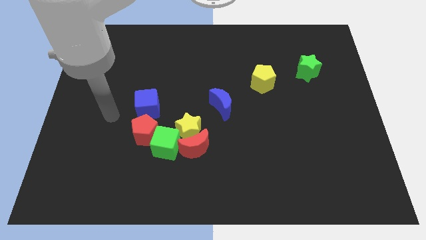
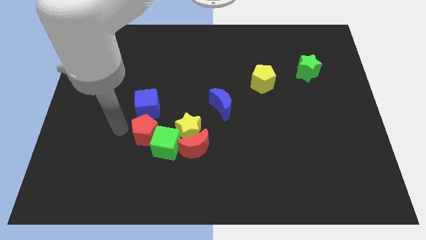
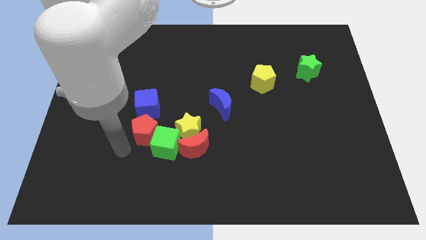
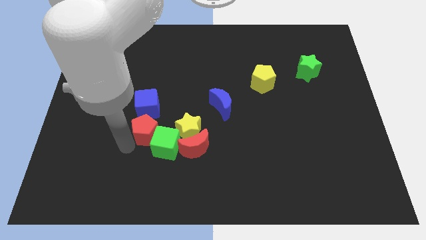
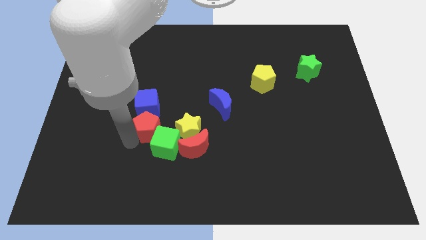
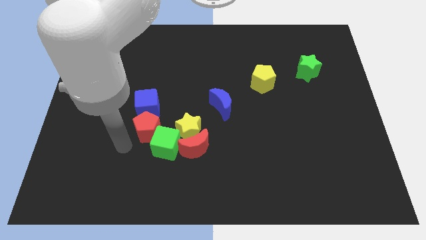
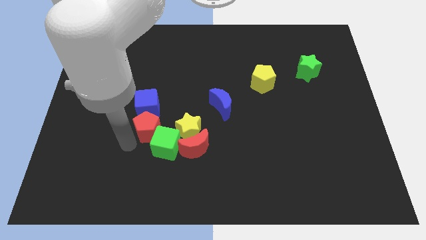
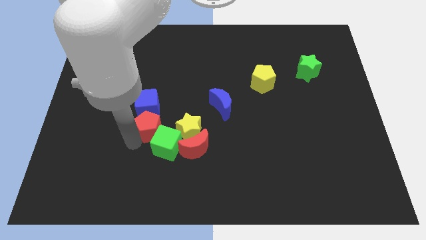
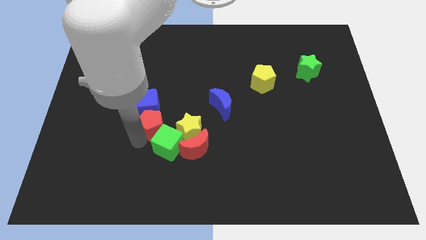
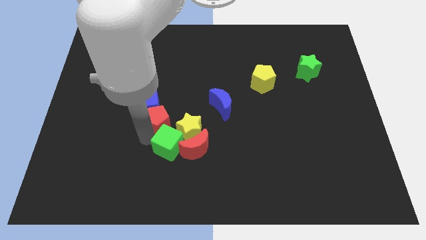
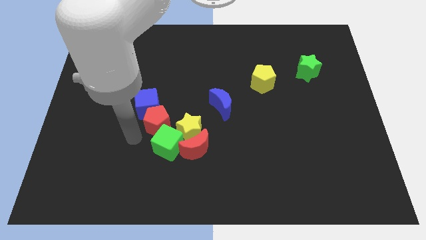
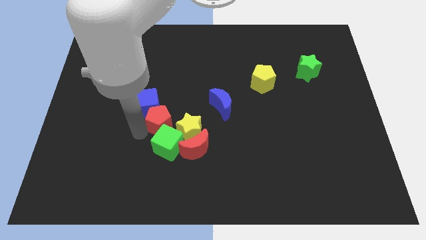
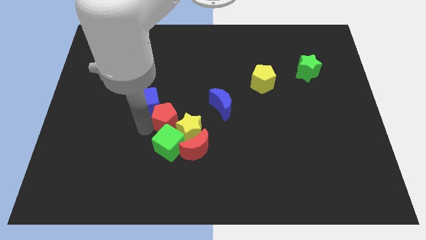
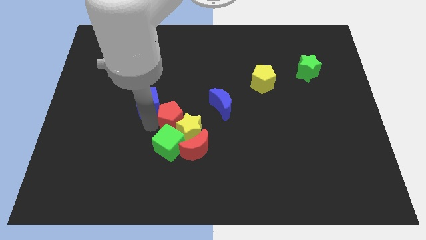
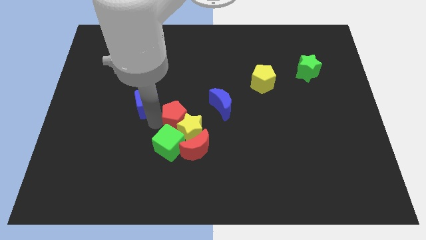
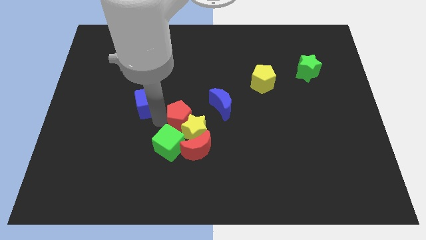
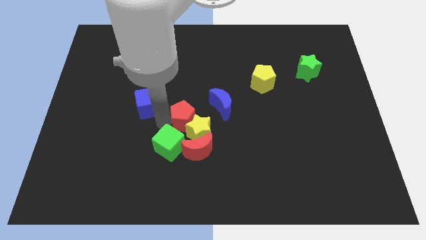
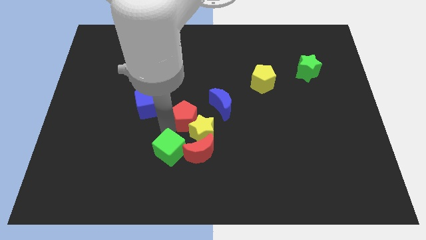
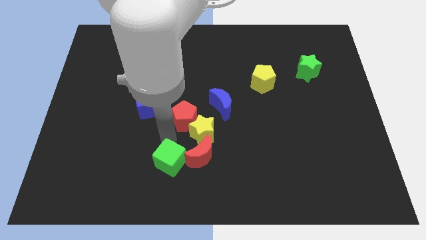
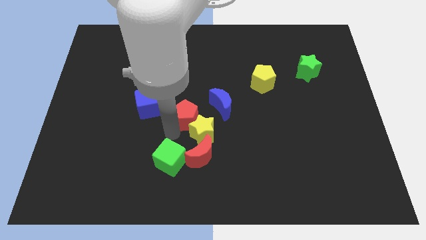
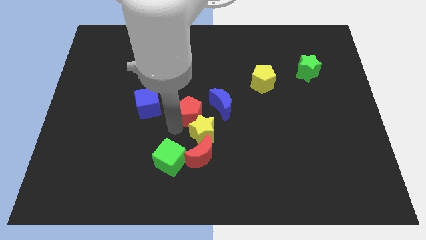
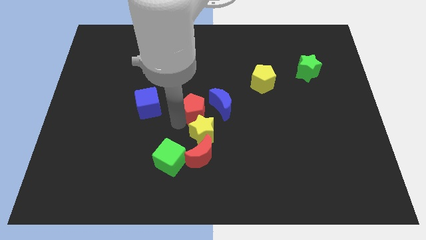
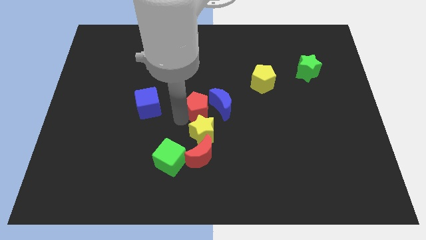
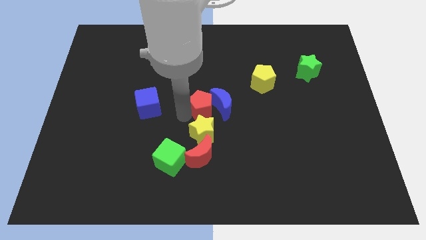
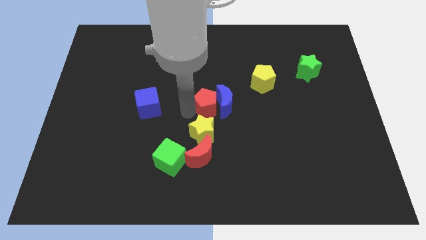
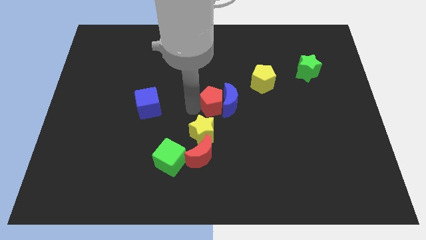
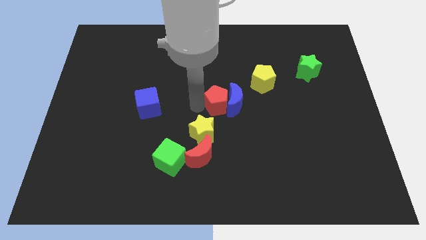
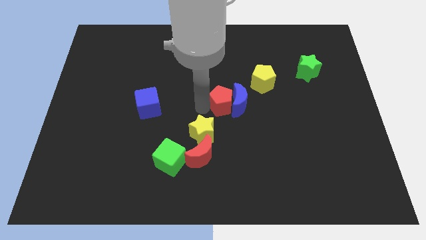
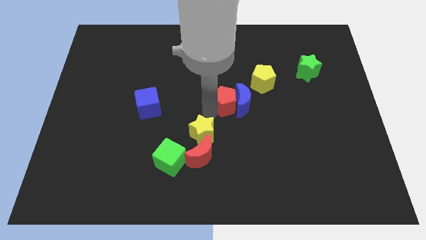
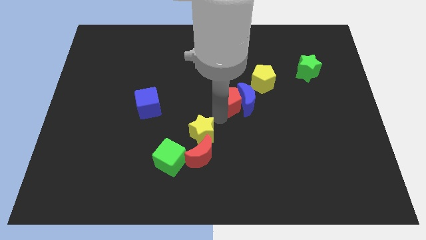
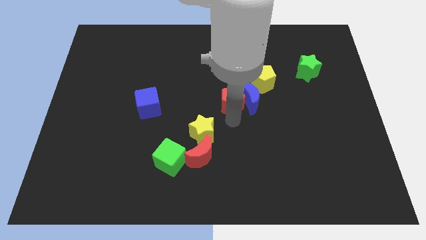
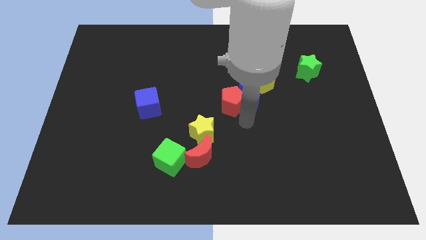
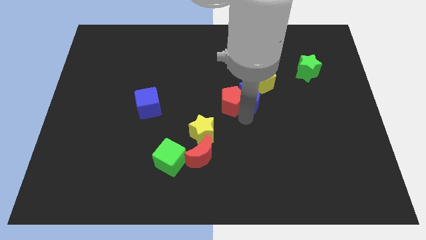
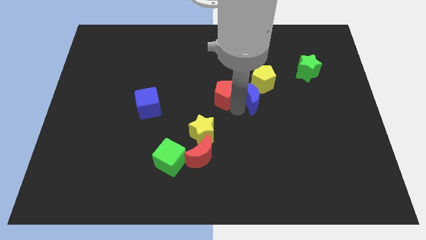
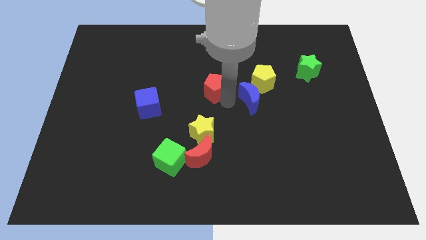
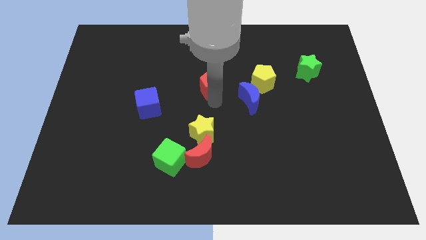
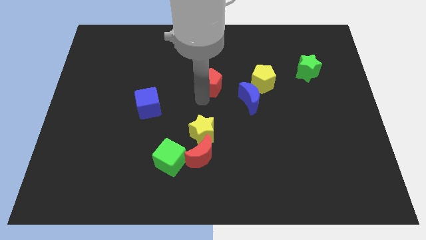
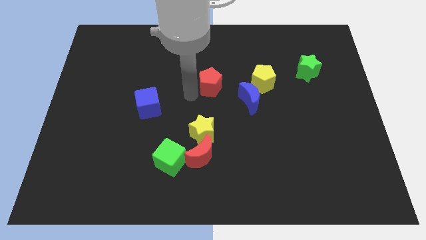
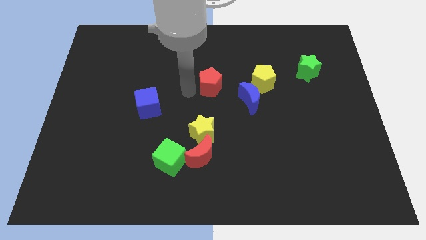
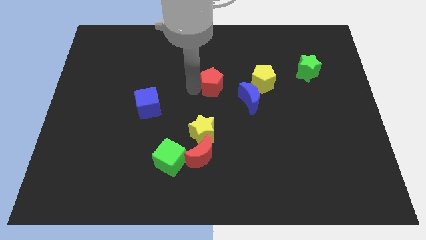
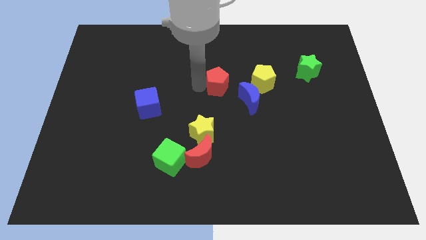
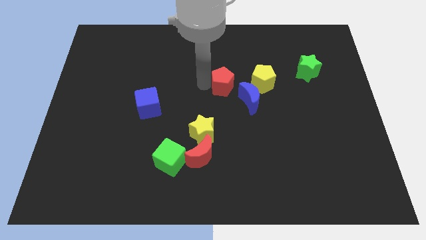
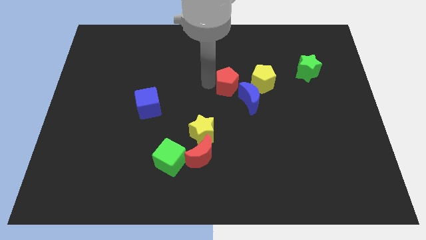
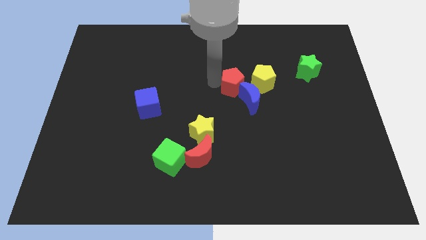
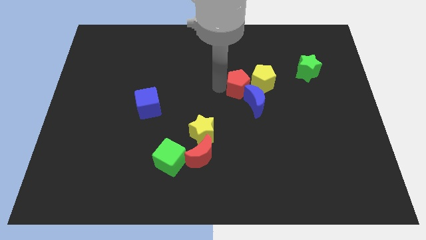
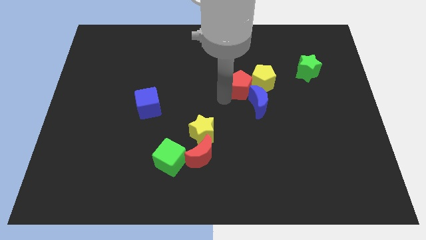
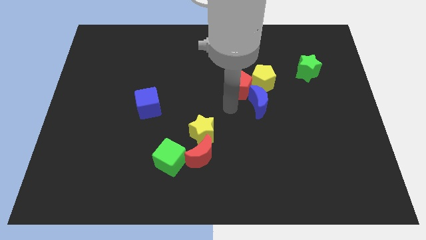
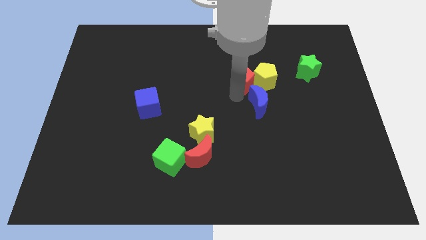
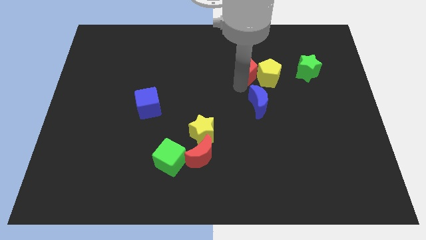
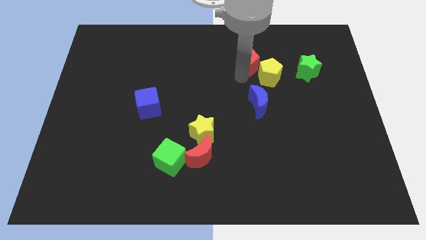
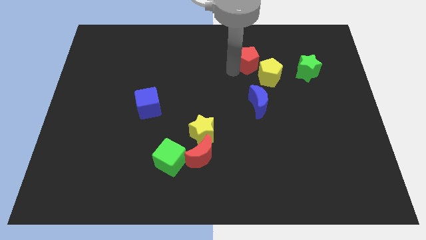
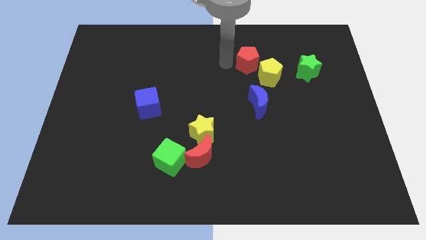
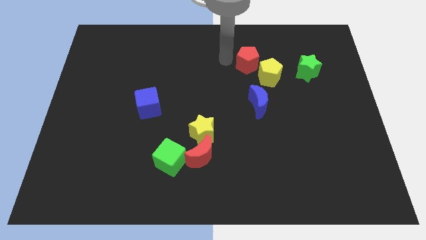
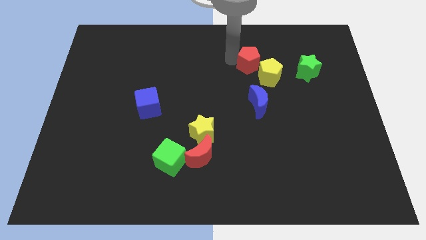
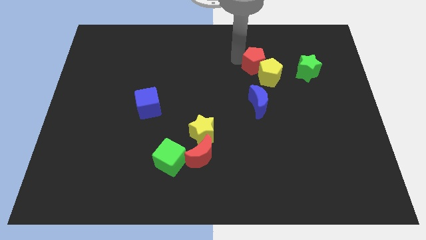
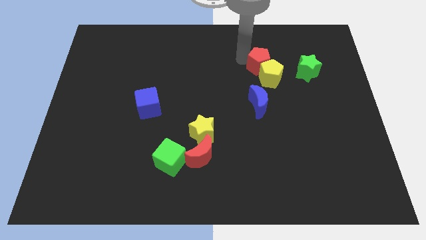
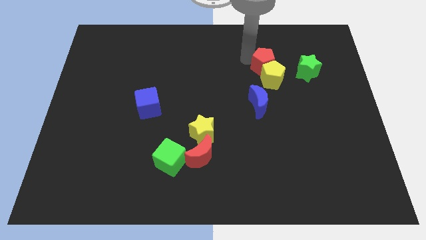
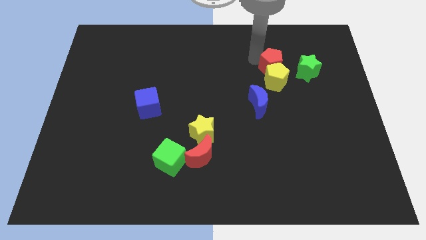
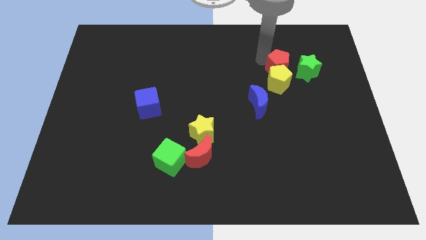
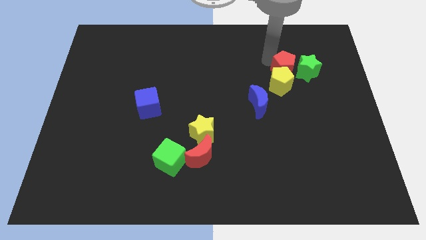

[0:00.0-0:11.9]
put the red pentagon next to the green star
